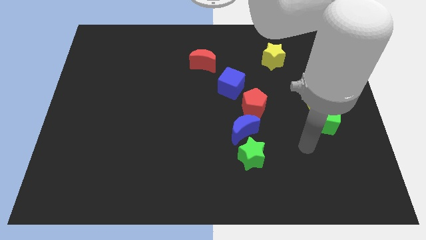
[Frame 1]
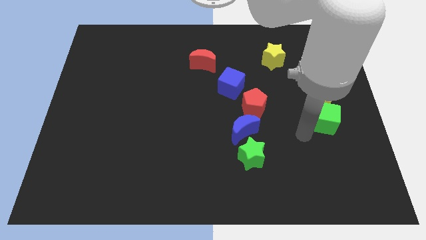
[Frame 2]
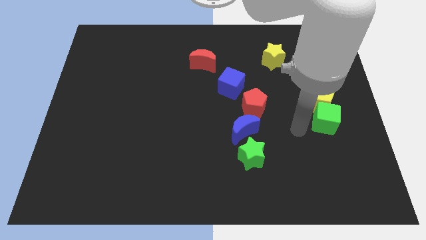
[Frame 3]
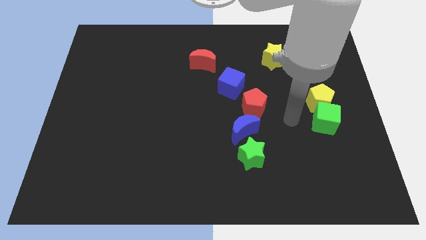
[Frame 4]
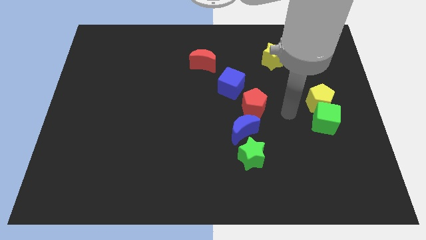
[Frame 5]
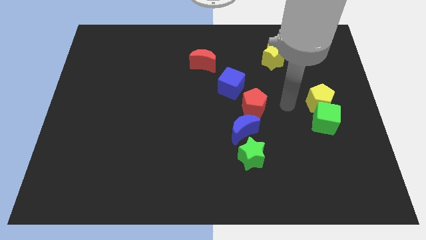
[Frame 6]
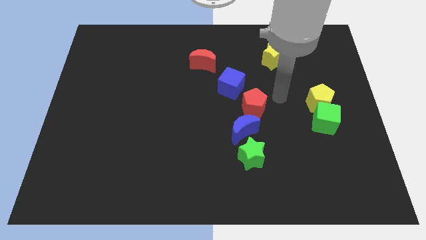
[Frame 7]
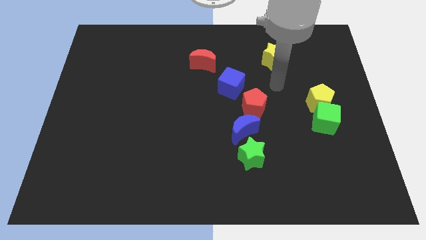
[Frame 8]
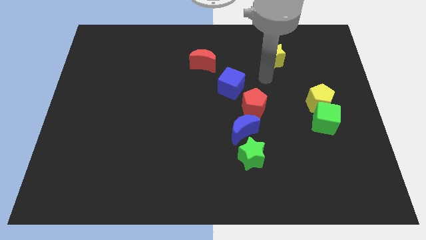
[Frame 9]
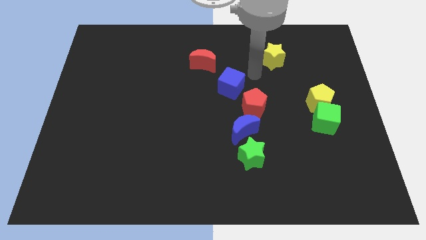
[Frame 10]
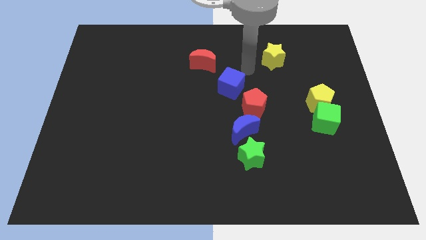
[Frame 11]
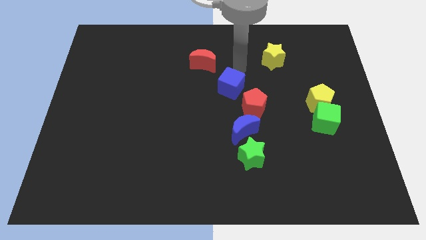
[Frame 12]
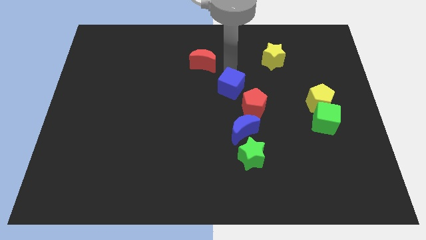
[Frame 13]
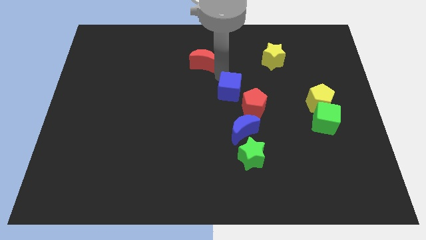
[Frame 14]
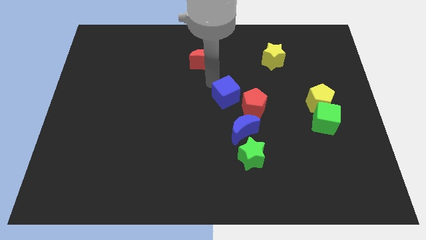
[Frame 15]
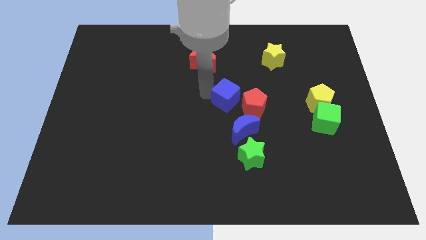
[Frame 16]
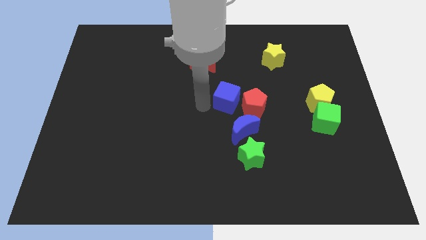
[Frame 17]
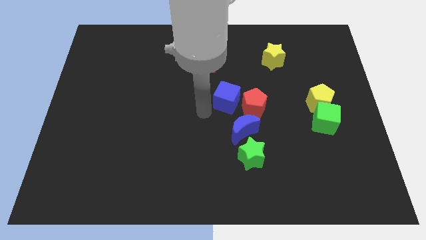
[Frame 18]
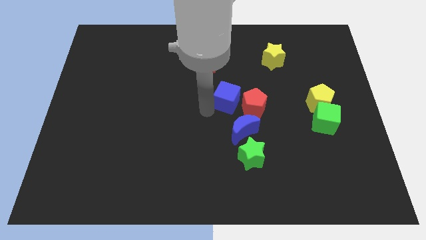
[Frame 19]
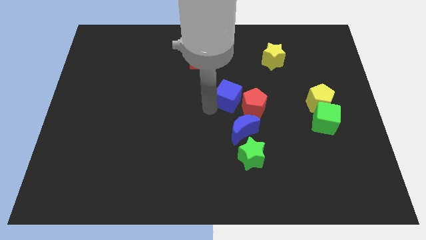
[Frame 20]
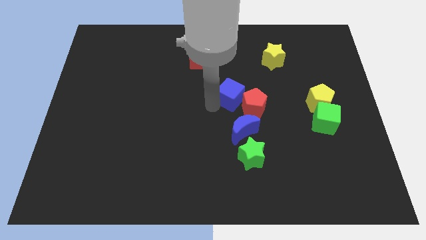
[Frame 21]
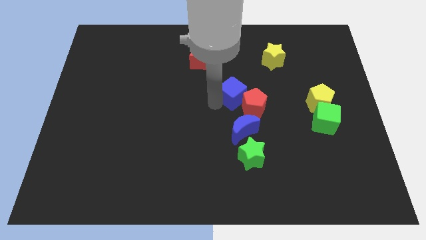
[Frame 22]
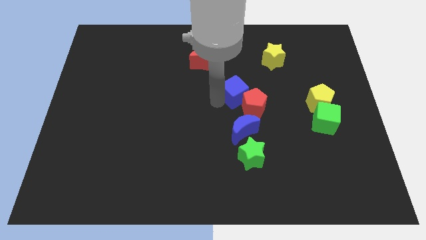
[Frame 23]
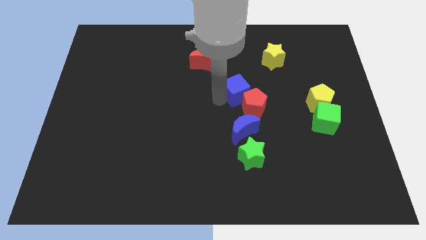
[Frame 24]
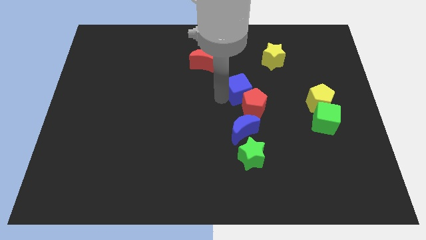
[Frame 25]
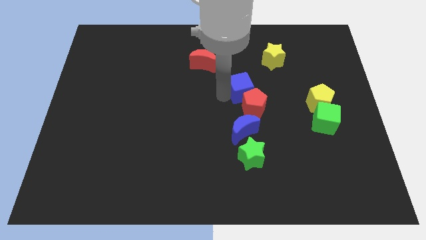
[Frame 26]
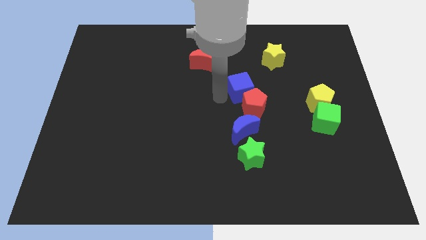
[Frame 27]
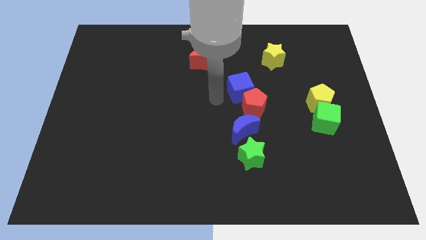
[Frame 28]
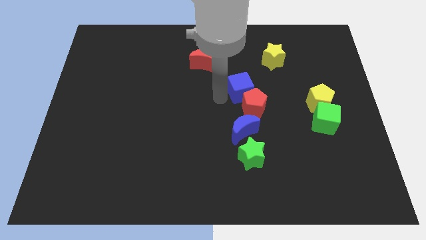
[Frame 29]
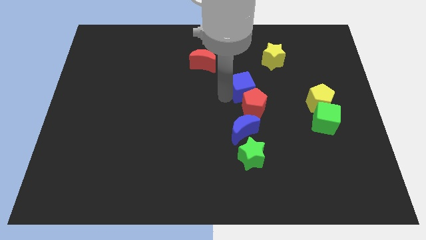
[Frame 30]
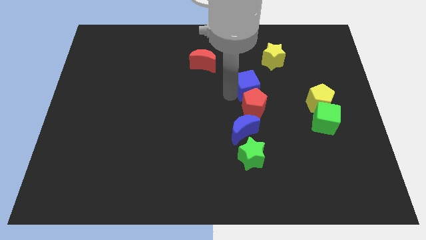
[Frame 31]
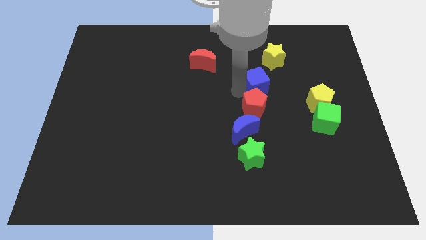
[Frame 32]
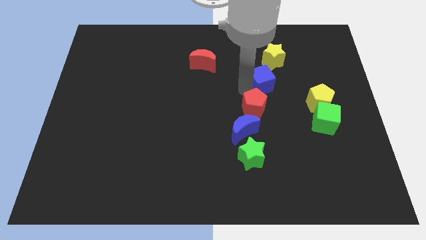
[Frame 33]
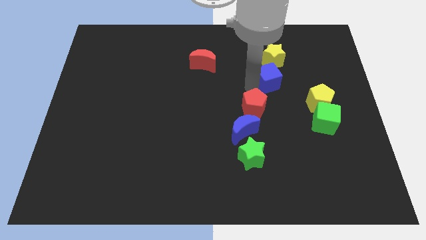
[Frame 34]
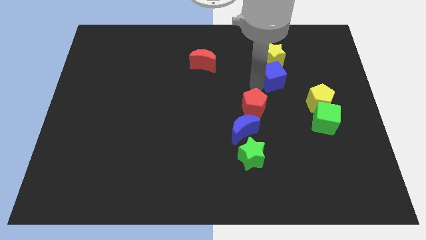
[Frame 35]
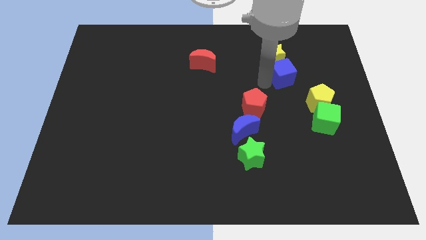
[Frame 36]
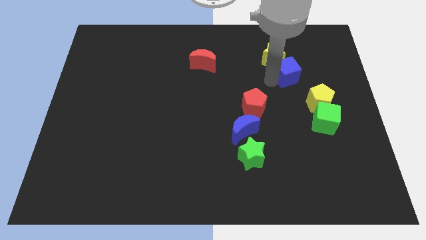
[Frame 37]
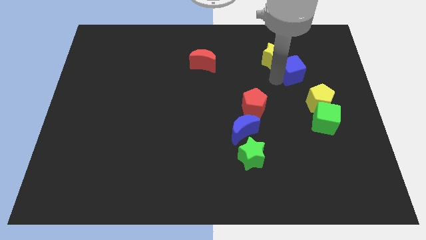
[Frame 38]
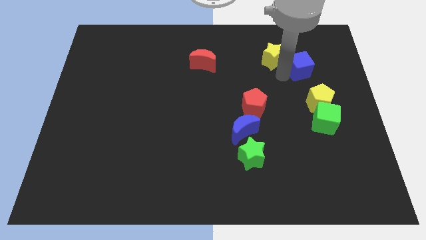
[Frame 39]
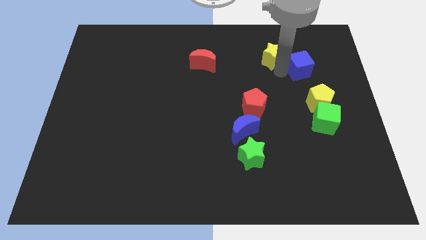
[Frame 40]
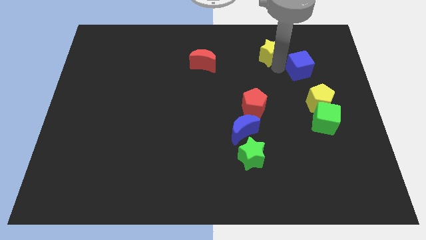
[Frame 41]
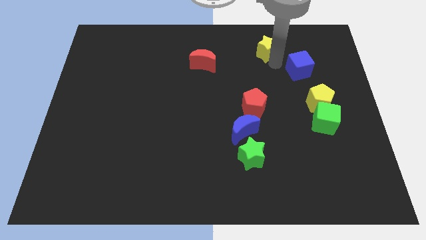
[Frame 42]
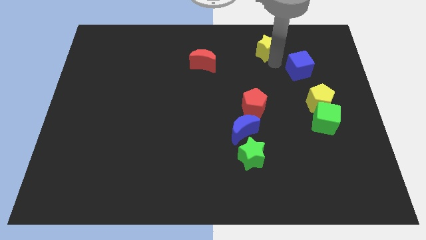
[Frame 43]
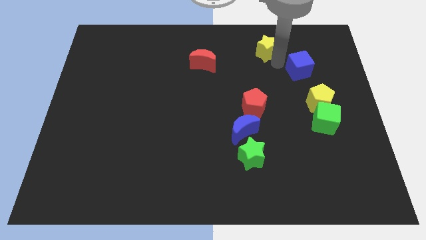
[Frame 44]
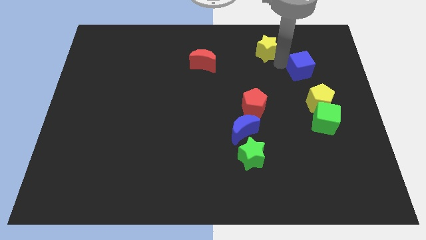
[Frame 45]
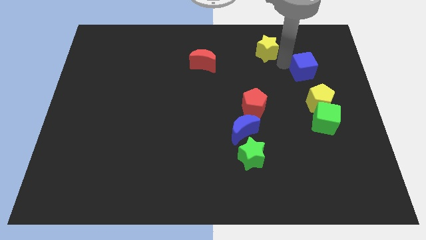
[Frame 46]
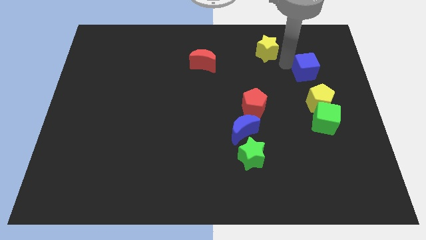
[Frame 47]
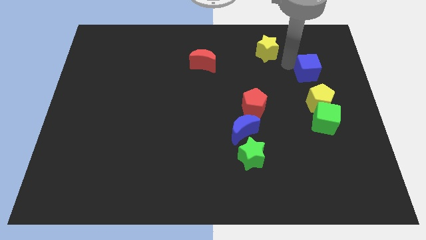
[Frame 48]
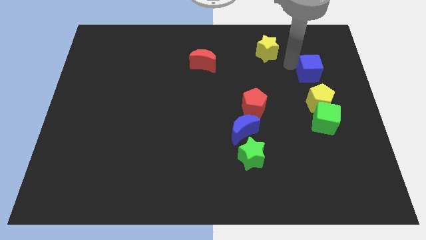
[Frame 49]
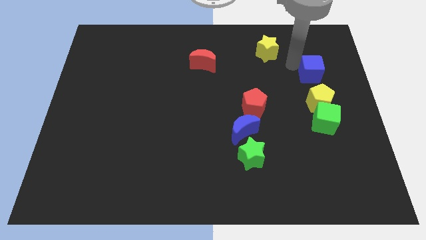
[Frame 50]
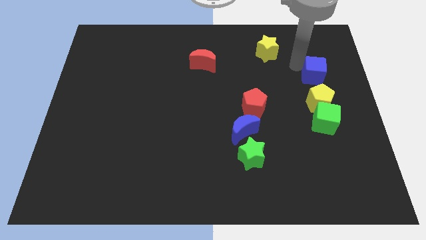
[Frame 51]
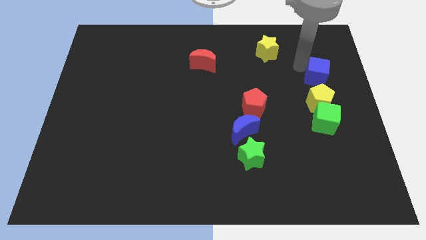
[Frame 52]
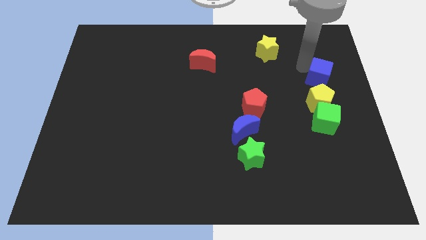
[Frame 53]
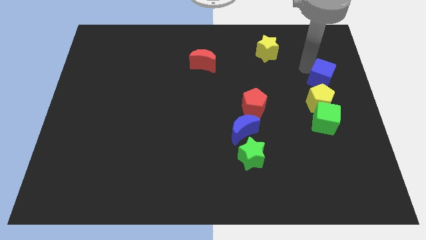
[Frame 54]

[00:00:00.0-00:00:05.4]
slide the blue cube to the right side

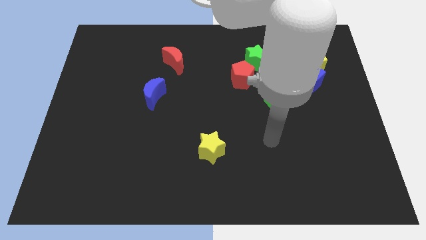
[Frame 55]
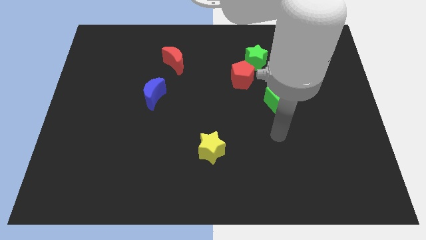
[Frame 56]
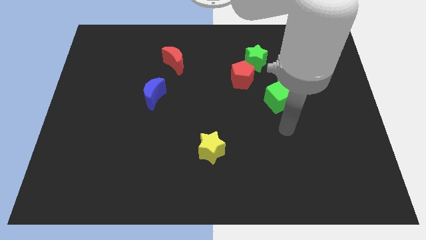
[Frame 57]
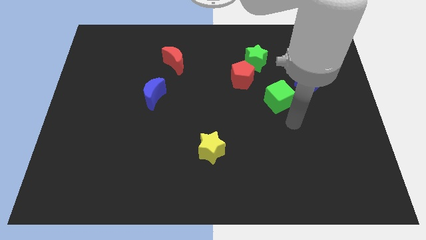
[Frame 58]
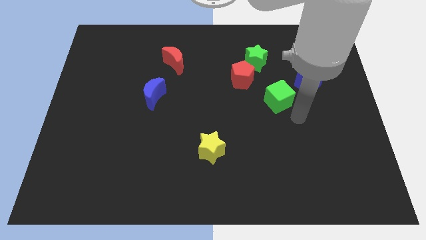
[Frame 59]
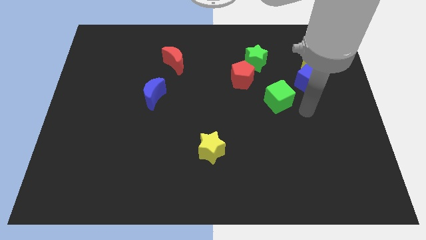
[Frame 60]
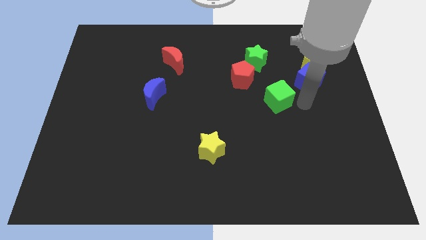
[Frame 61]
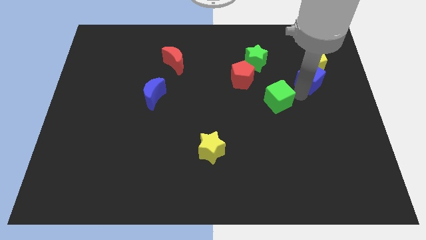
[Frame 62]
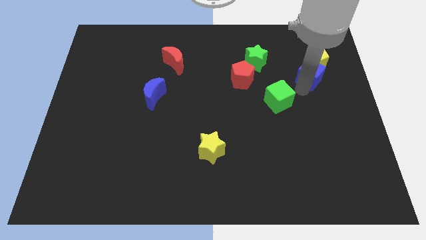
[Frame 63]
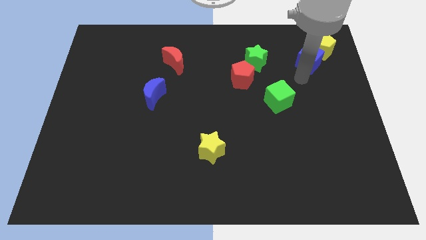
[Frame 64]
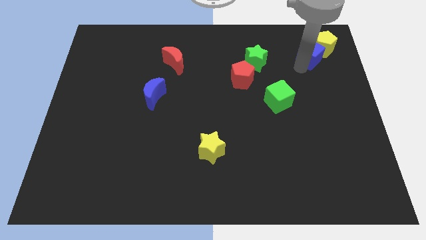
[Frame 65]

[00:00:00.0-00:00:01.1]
push the yellow pentagon to the upper right corner
